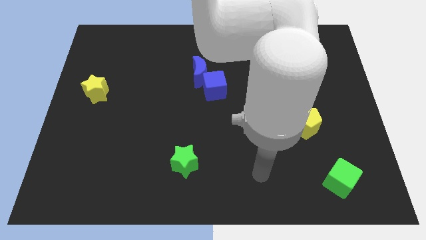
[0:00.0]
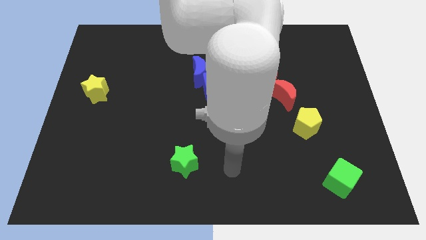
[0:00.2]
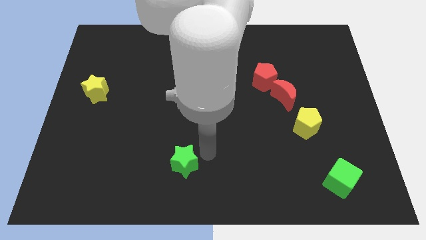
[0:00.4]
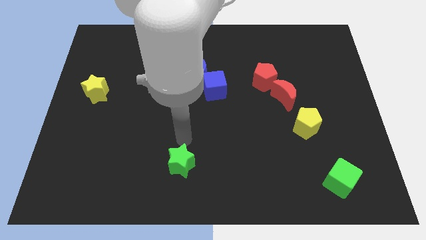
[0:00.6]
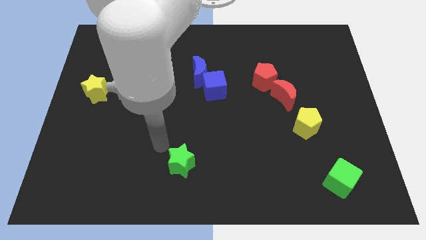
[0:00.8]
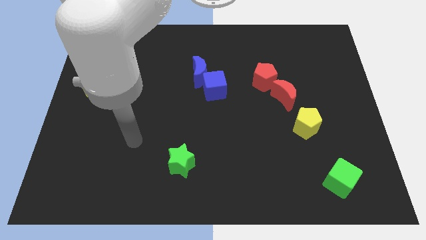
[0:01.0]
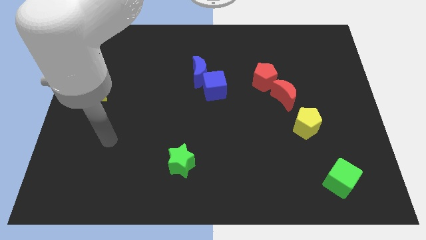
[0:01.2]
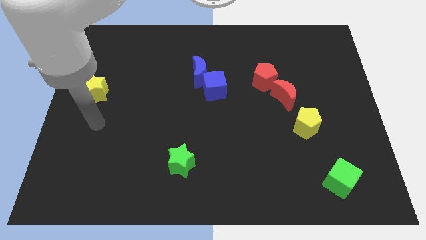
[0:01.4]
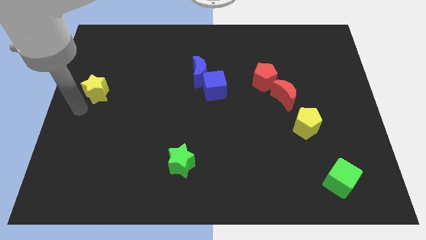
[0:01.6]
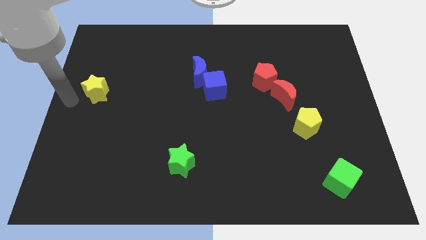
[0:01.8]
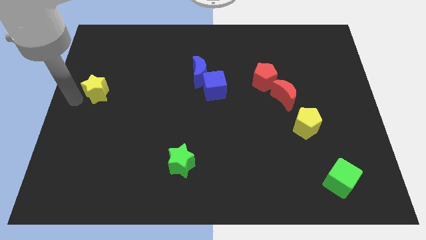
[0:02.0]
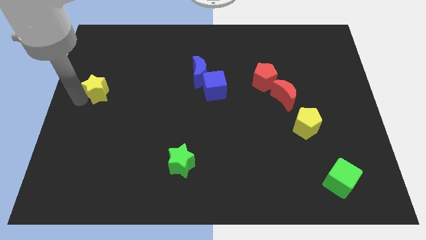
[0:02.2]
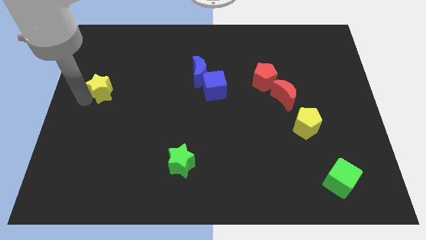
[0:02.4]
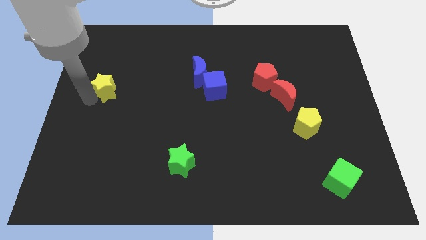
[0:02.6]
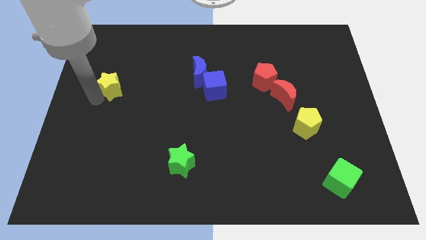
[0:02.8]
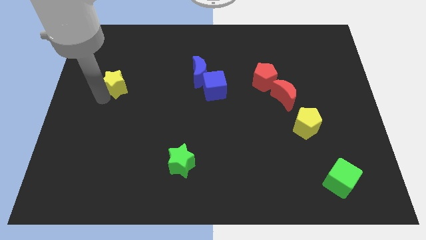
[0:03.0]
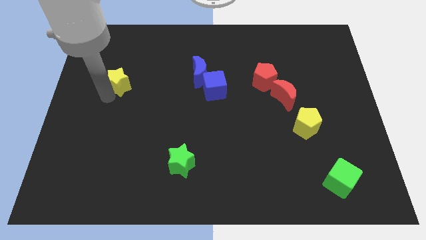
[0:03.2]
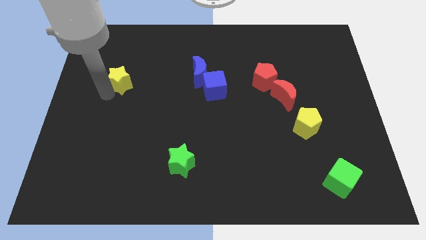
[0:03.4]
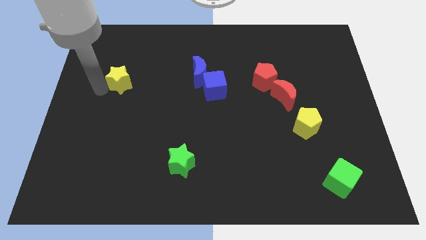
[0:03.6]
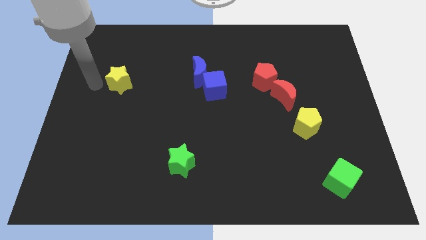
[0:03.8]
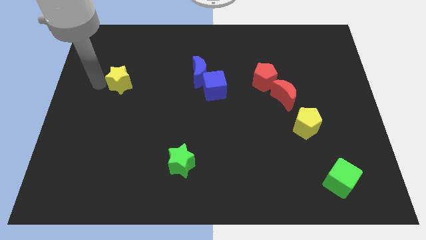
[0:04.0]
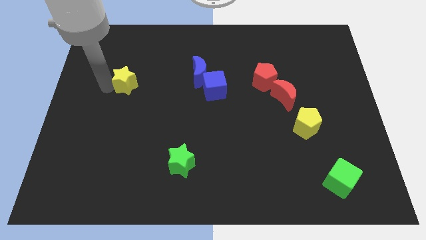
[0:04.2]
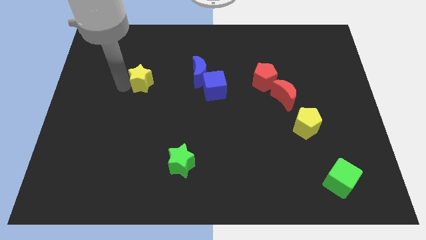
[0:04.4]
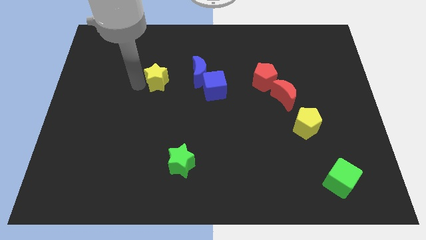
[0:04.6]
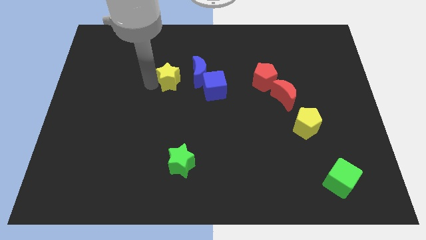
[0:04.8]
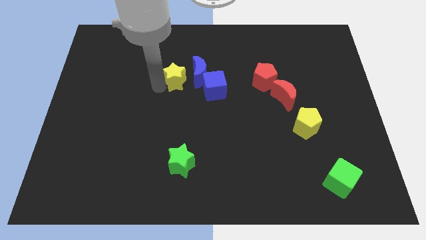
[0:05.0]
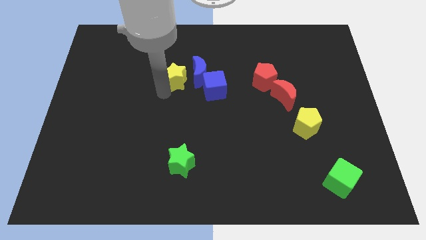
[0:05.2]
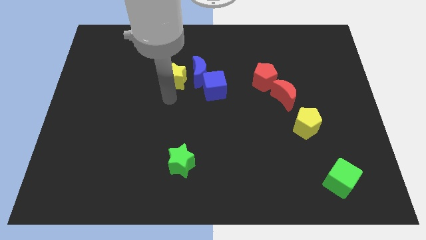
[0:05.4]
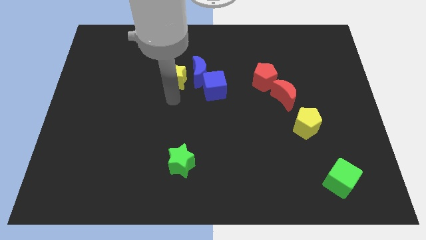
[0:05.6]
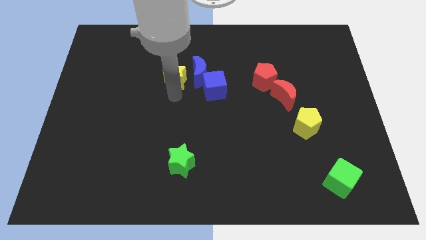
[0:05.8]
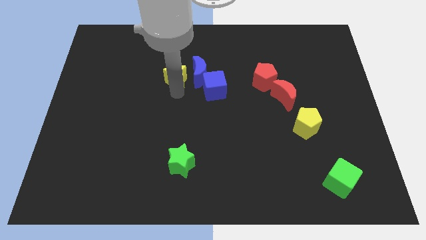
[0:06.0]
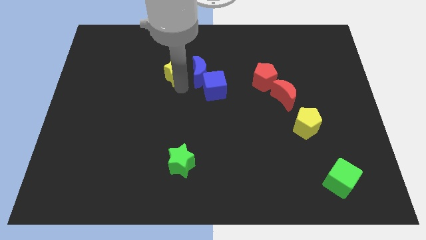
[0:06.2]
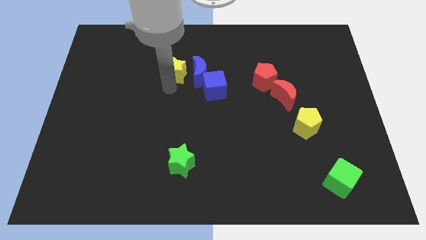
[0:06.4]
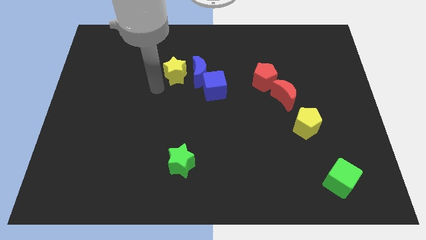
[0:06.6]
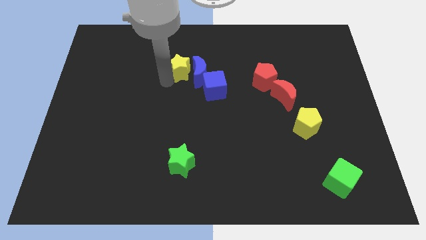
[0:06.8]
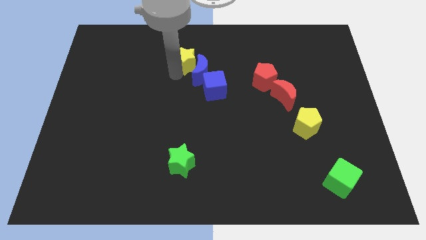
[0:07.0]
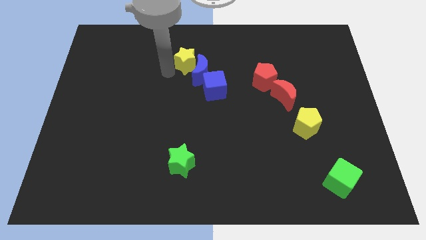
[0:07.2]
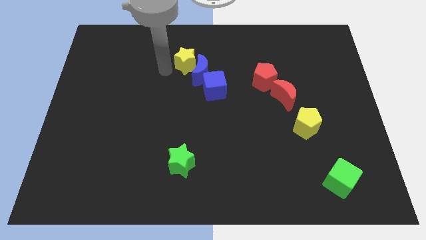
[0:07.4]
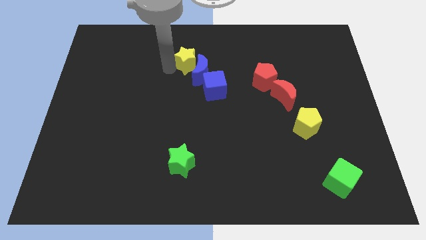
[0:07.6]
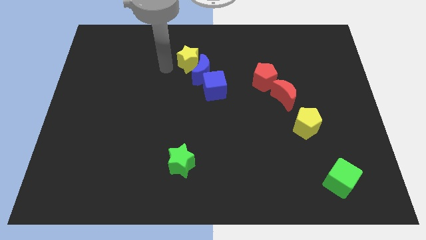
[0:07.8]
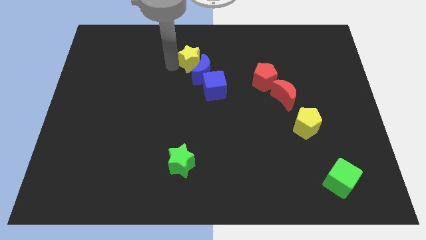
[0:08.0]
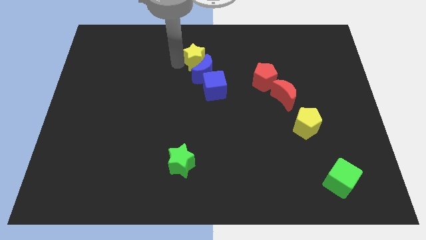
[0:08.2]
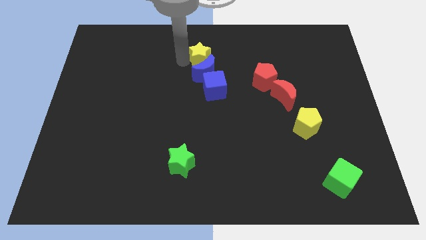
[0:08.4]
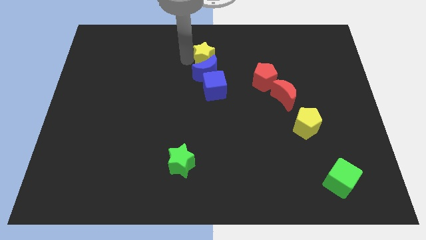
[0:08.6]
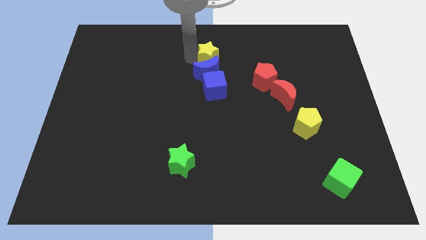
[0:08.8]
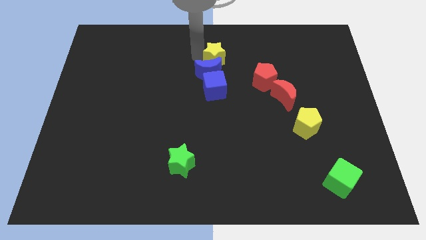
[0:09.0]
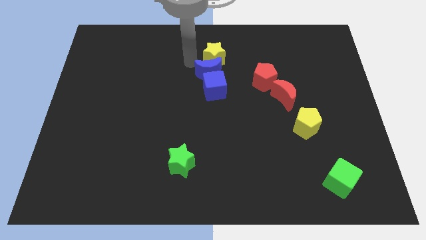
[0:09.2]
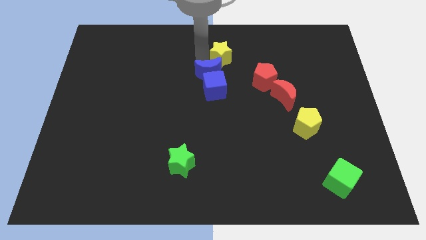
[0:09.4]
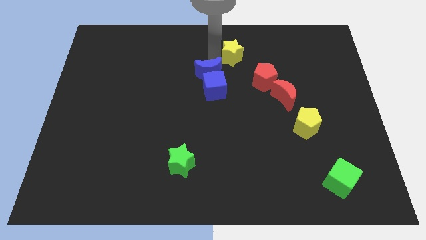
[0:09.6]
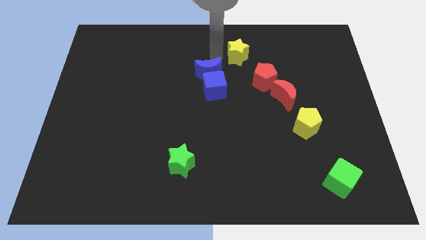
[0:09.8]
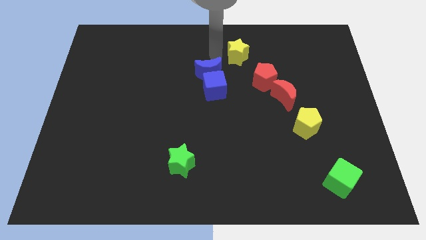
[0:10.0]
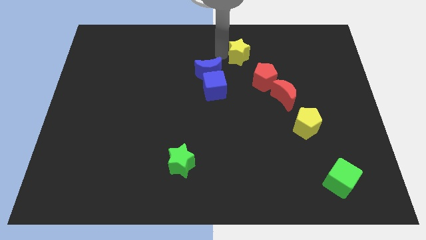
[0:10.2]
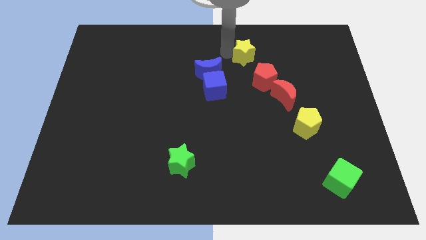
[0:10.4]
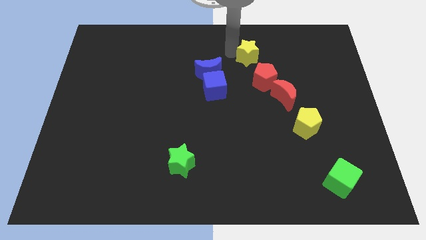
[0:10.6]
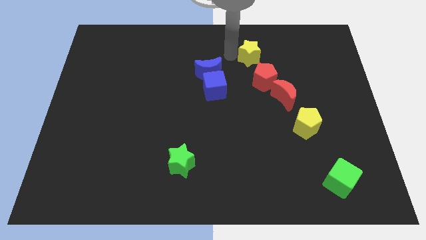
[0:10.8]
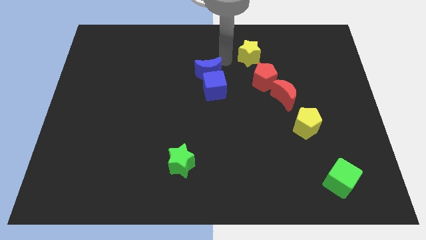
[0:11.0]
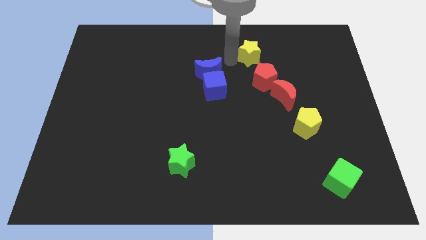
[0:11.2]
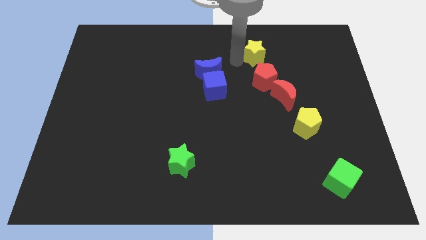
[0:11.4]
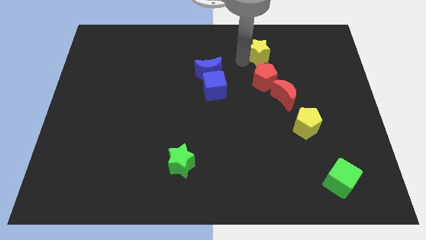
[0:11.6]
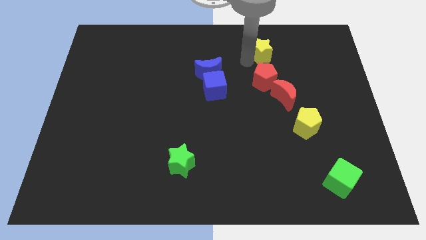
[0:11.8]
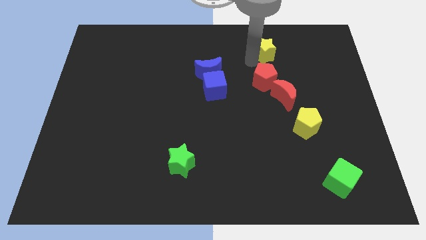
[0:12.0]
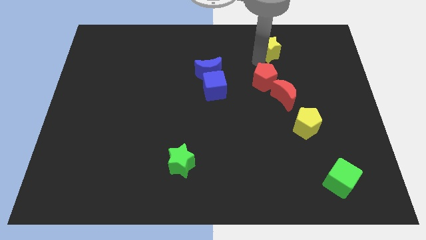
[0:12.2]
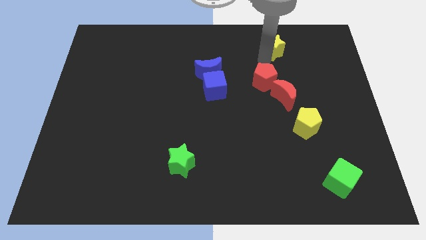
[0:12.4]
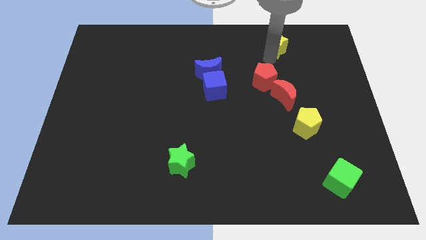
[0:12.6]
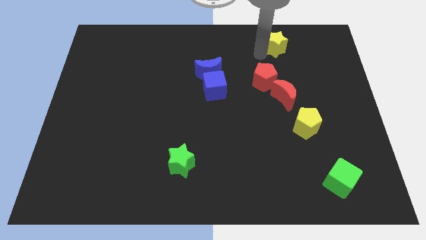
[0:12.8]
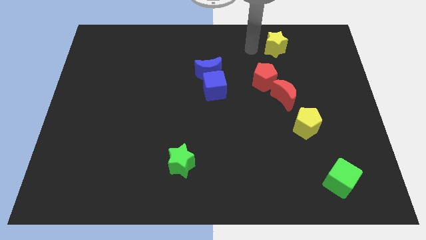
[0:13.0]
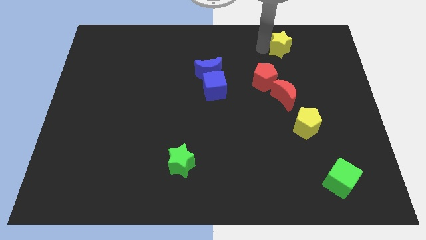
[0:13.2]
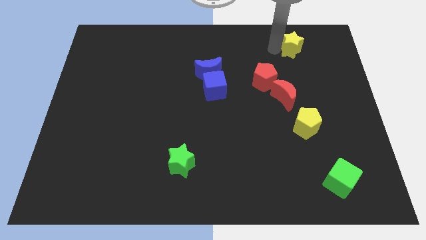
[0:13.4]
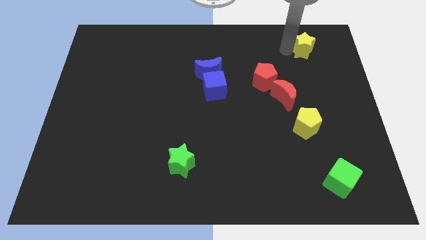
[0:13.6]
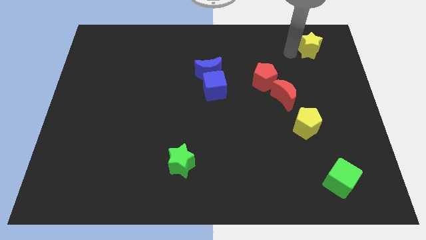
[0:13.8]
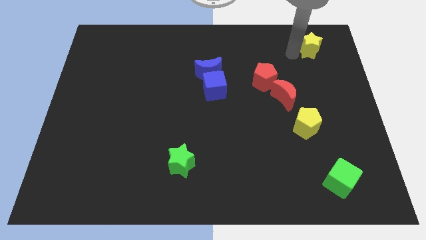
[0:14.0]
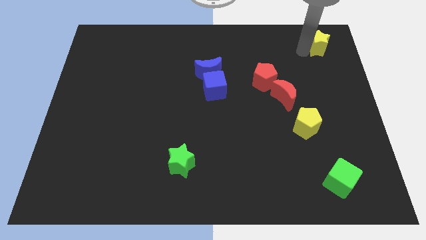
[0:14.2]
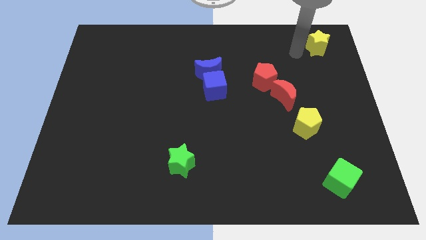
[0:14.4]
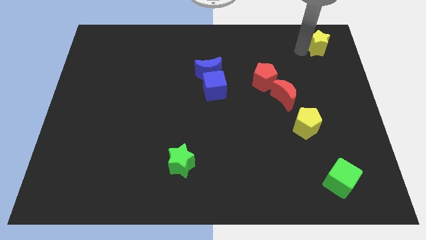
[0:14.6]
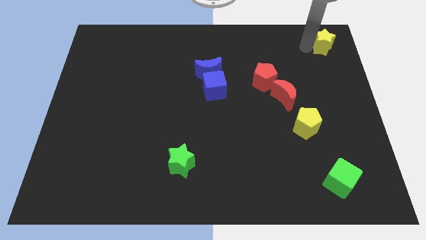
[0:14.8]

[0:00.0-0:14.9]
slide the yellow star to the upper right corner
